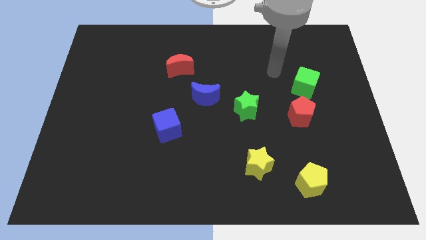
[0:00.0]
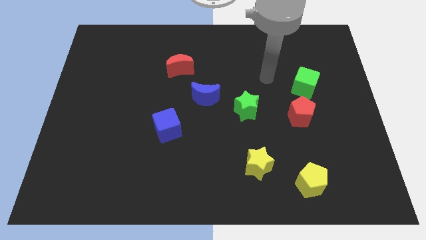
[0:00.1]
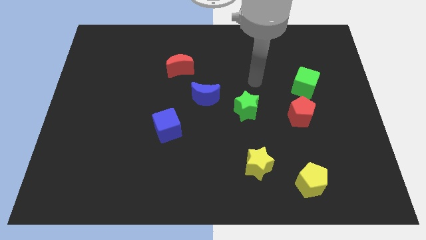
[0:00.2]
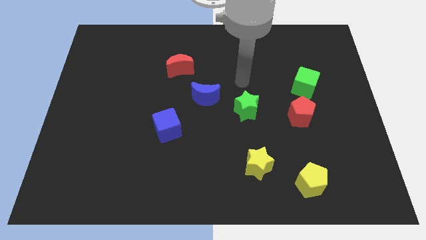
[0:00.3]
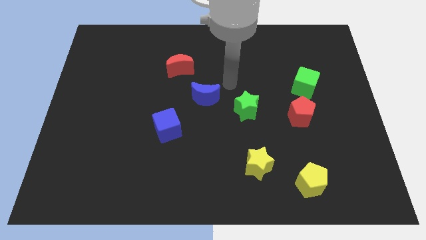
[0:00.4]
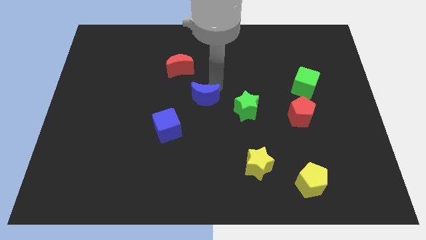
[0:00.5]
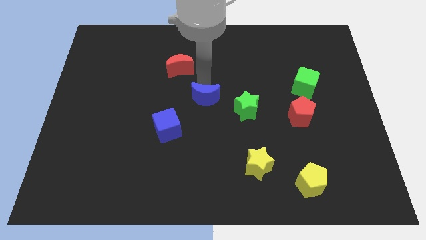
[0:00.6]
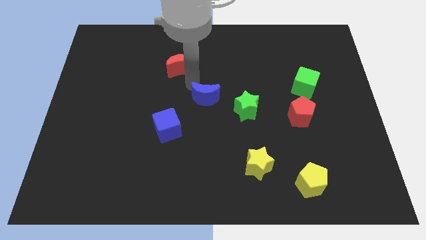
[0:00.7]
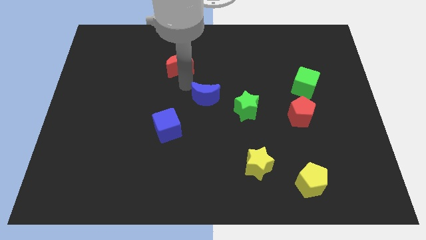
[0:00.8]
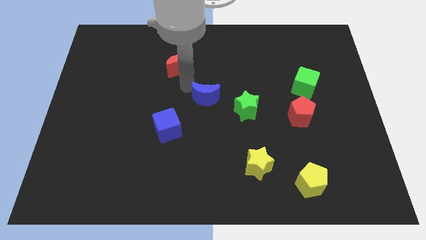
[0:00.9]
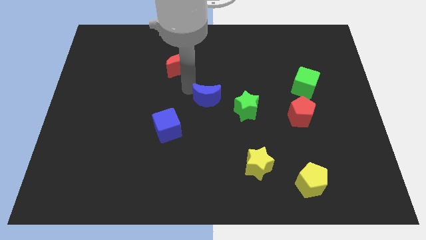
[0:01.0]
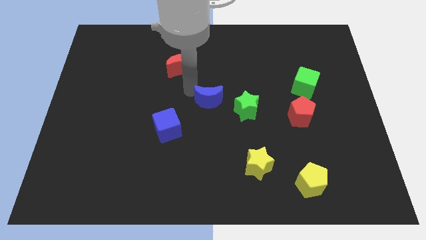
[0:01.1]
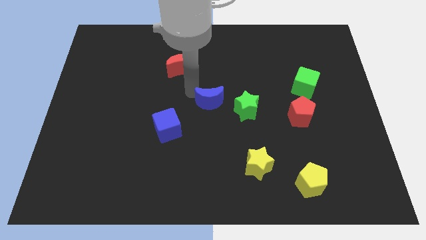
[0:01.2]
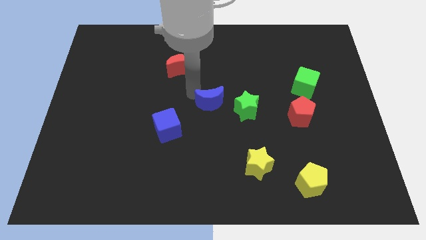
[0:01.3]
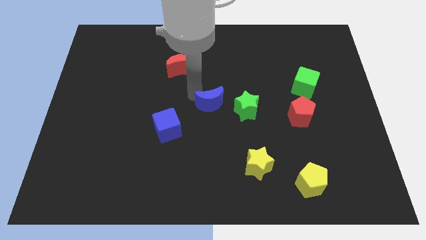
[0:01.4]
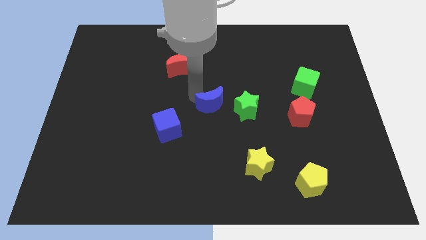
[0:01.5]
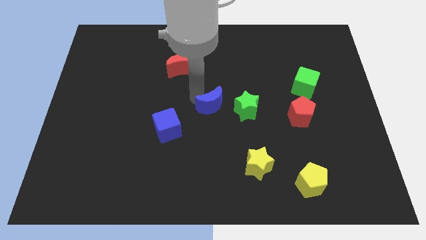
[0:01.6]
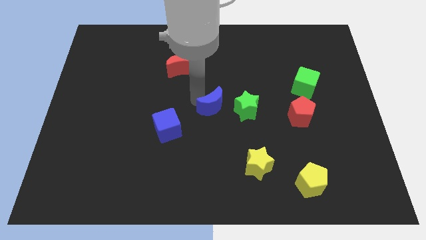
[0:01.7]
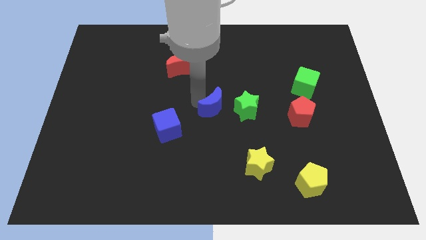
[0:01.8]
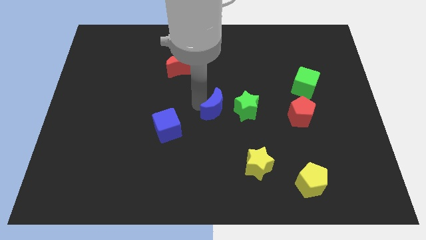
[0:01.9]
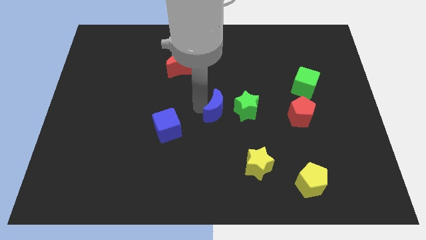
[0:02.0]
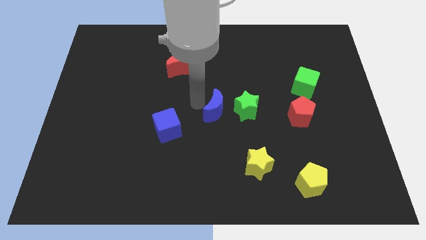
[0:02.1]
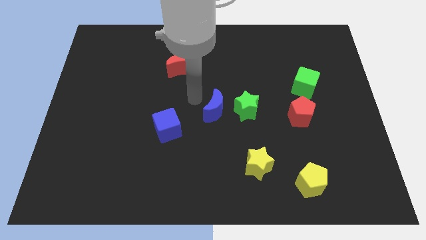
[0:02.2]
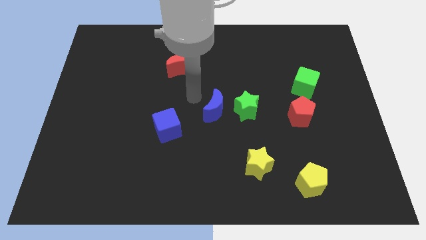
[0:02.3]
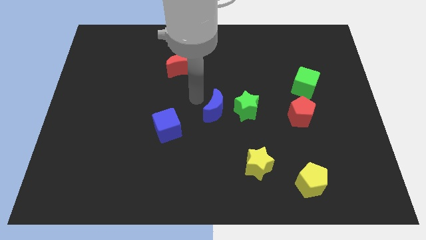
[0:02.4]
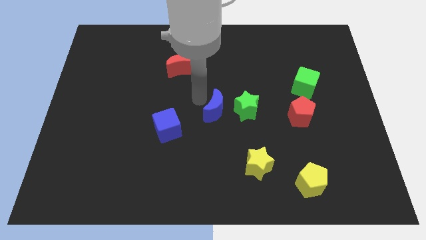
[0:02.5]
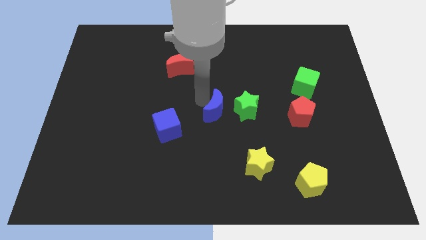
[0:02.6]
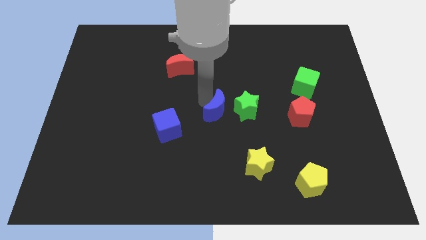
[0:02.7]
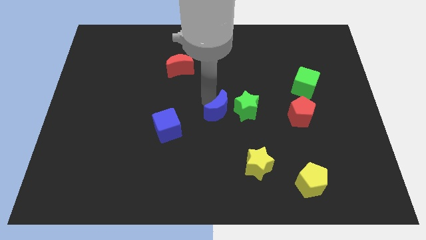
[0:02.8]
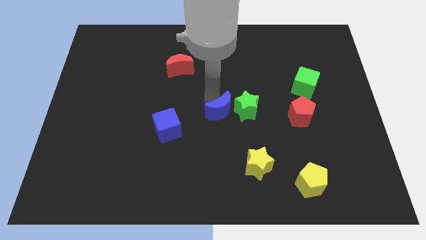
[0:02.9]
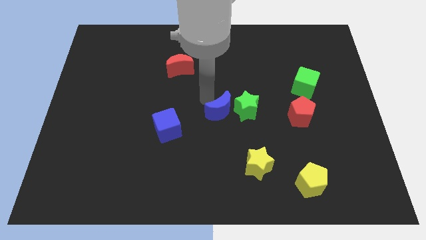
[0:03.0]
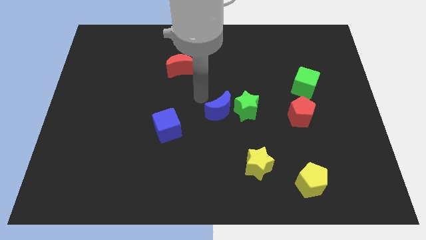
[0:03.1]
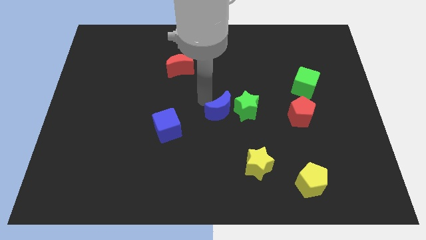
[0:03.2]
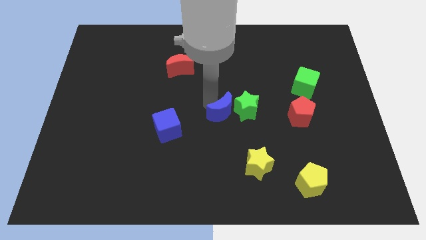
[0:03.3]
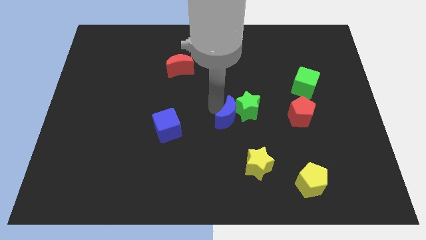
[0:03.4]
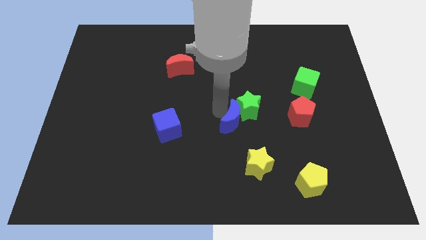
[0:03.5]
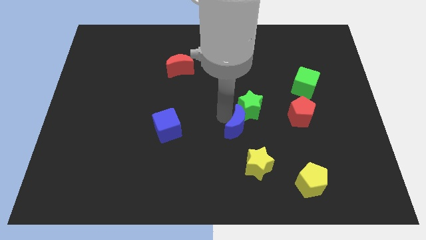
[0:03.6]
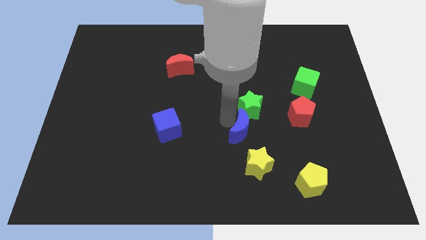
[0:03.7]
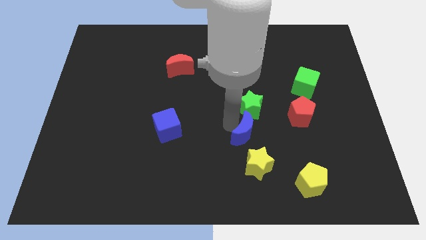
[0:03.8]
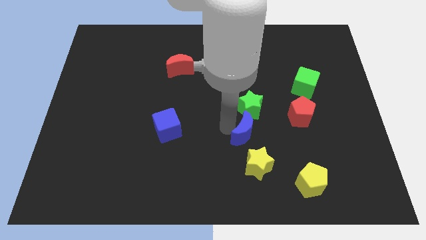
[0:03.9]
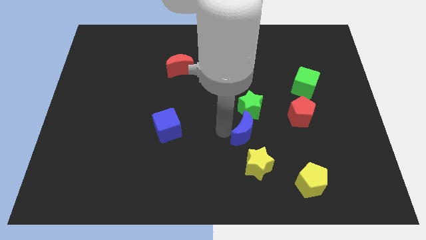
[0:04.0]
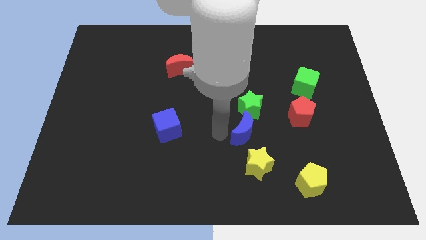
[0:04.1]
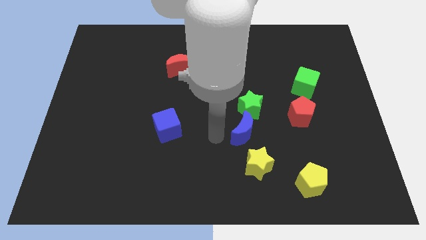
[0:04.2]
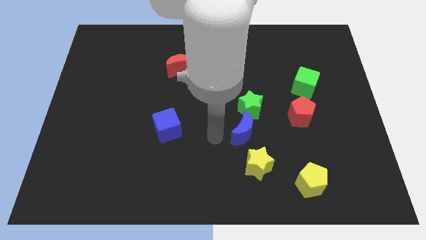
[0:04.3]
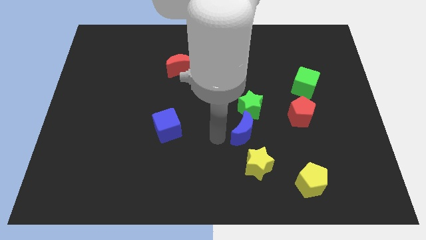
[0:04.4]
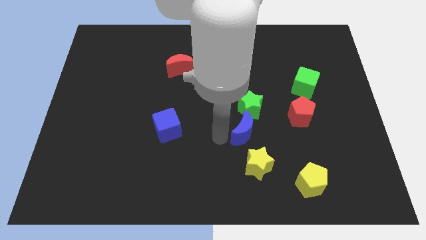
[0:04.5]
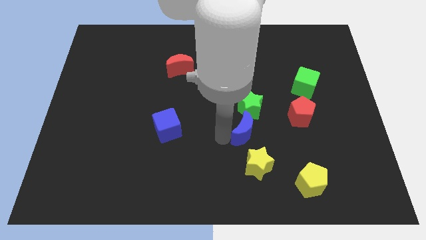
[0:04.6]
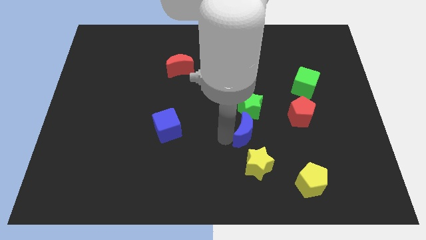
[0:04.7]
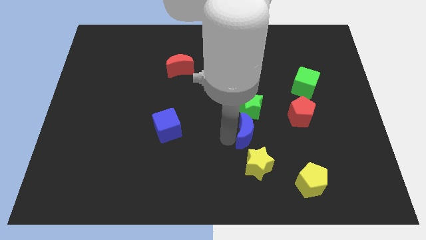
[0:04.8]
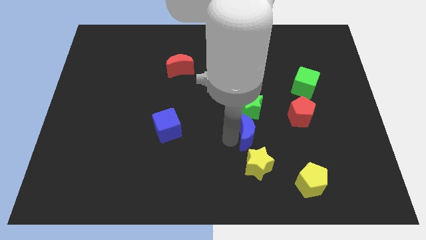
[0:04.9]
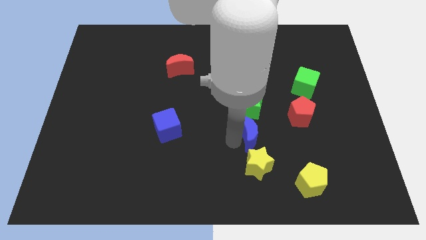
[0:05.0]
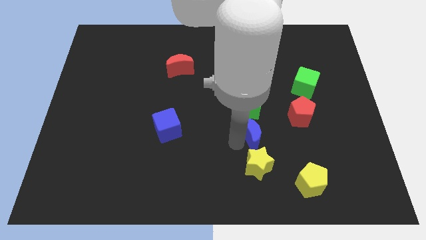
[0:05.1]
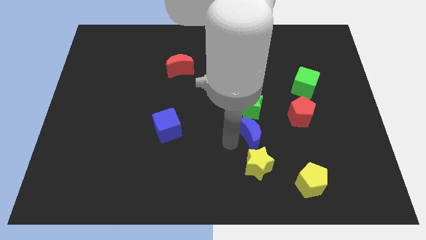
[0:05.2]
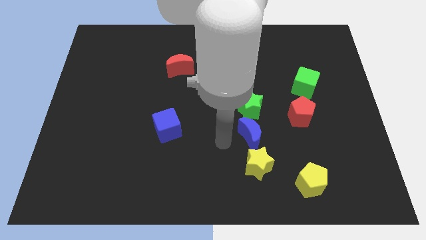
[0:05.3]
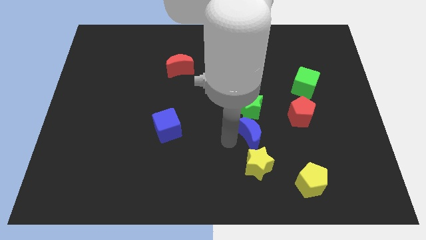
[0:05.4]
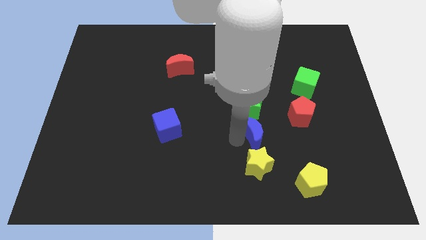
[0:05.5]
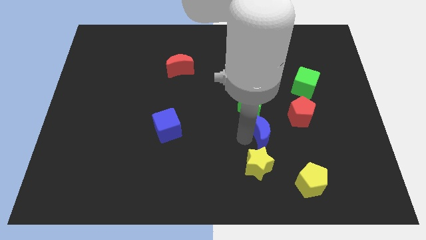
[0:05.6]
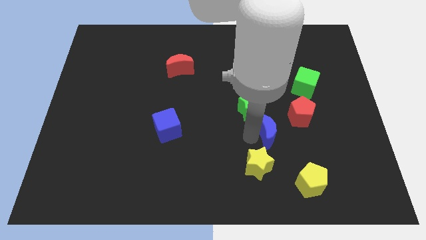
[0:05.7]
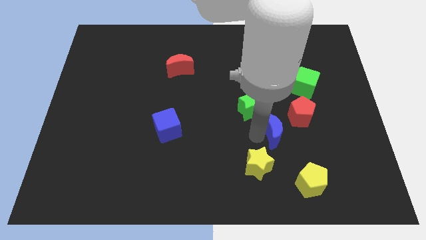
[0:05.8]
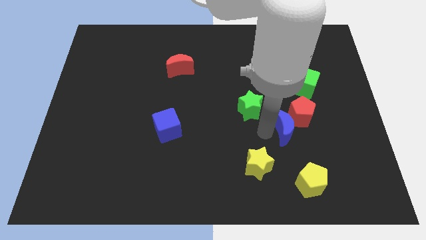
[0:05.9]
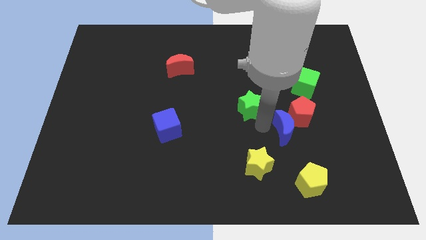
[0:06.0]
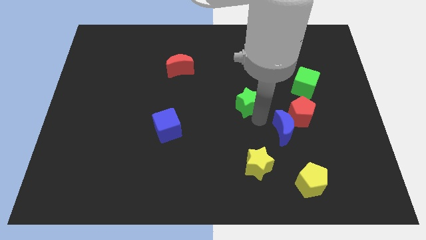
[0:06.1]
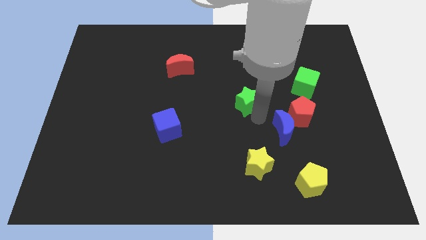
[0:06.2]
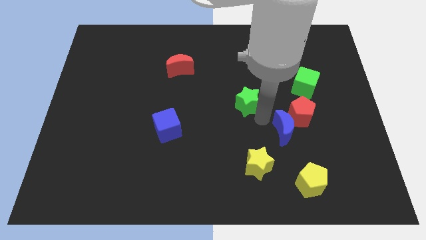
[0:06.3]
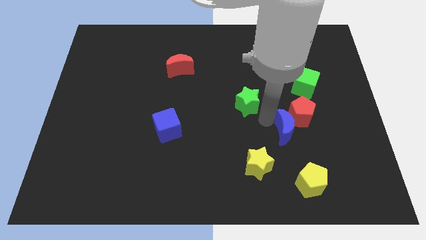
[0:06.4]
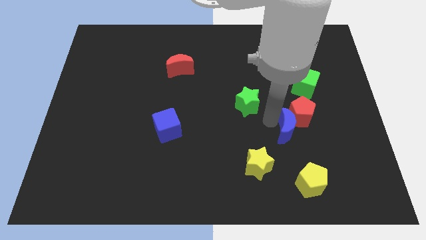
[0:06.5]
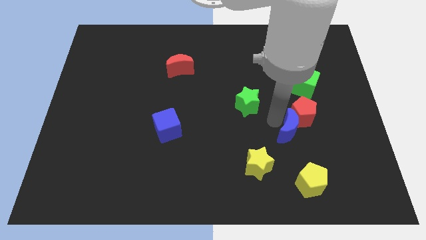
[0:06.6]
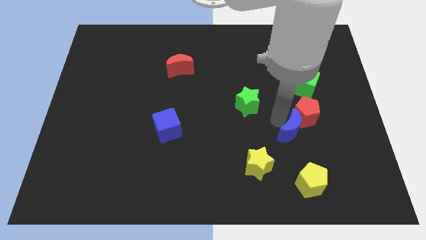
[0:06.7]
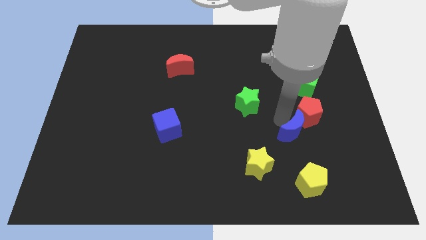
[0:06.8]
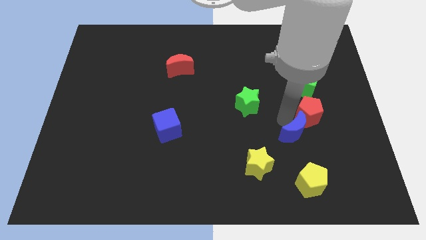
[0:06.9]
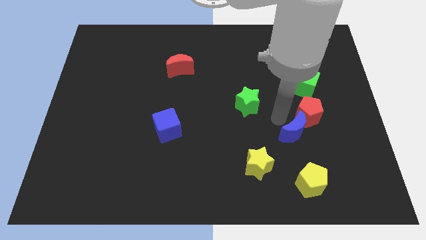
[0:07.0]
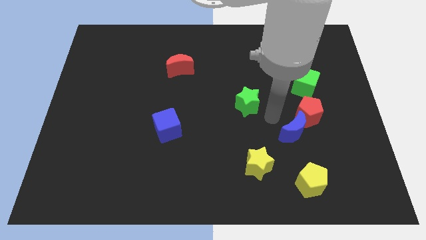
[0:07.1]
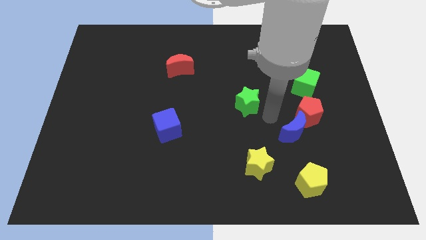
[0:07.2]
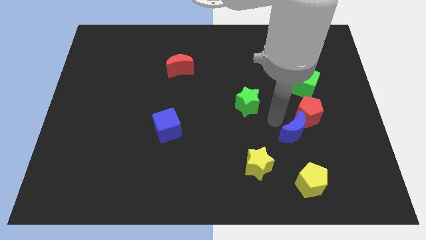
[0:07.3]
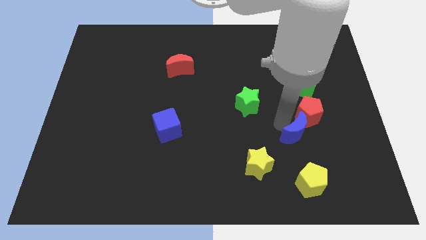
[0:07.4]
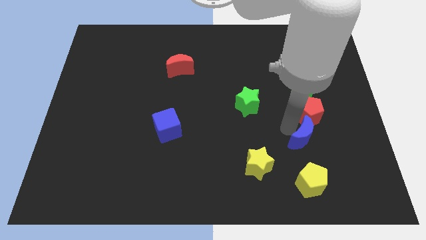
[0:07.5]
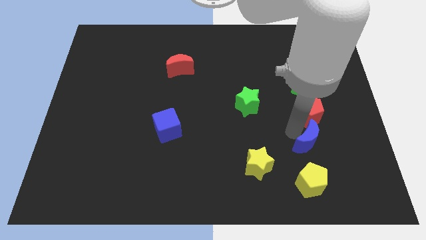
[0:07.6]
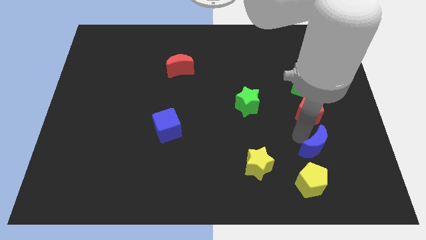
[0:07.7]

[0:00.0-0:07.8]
push the blue moon diagonally up and to the right of the yellow pentagon
